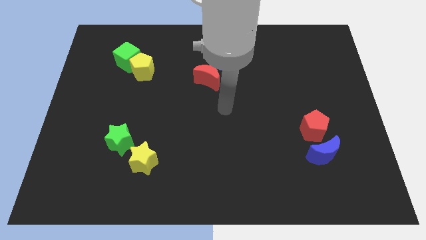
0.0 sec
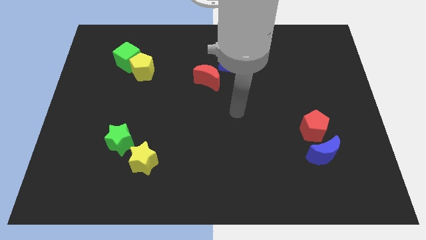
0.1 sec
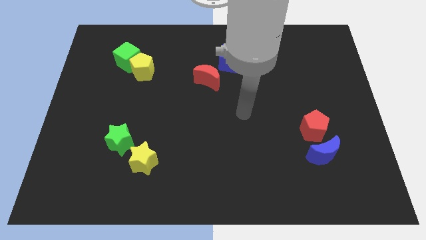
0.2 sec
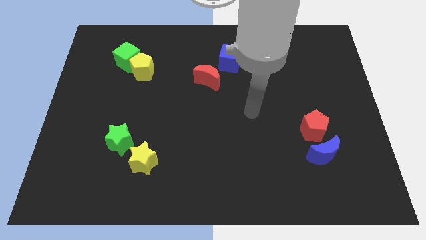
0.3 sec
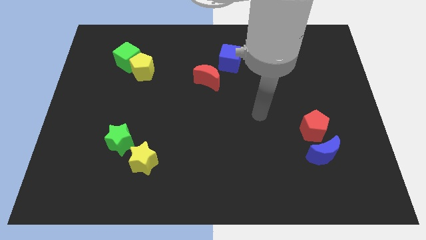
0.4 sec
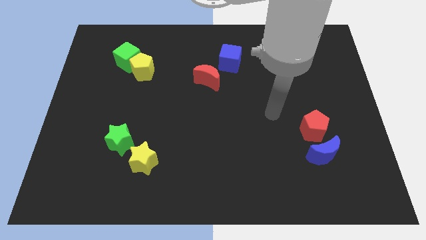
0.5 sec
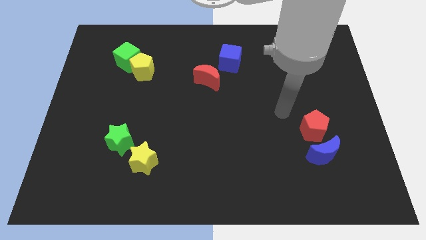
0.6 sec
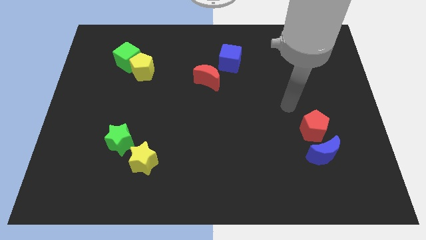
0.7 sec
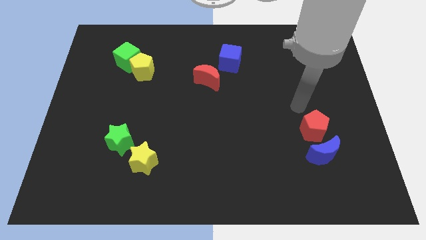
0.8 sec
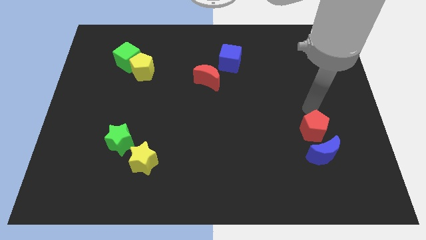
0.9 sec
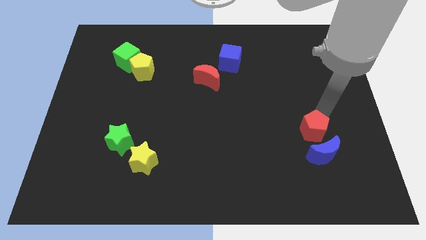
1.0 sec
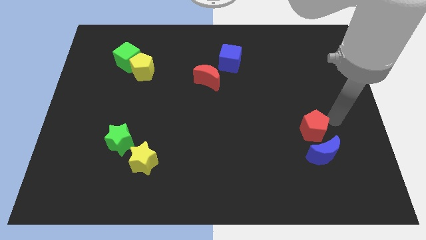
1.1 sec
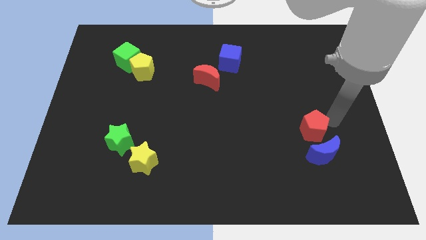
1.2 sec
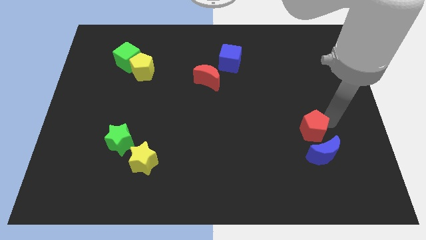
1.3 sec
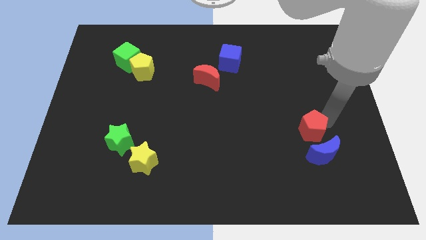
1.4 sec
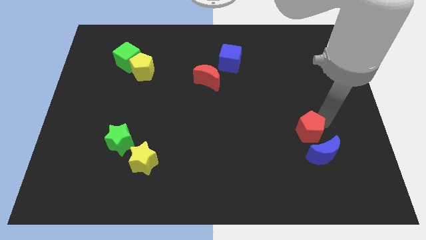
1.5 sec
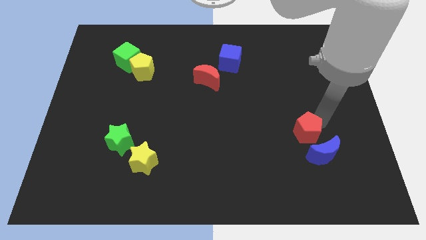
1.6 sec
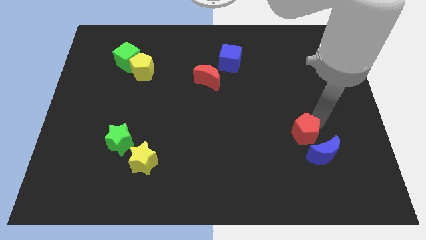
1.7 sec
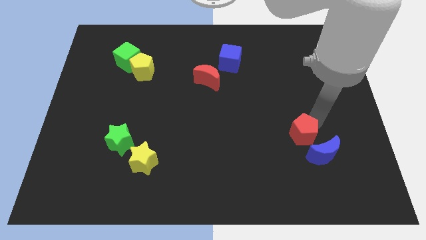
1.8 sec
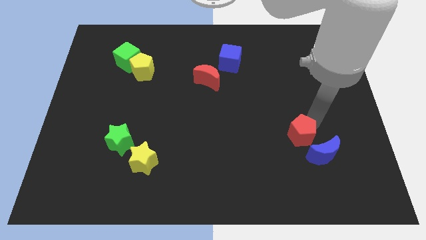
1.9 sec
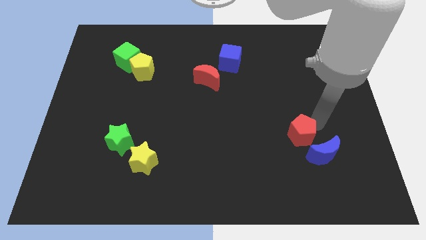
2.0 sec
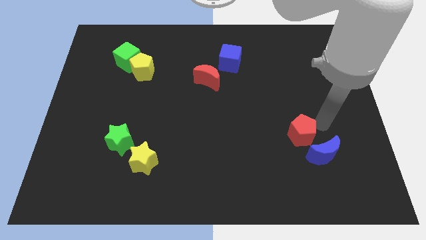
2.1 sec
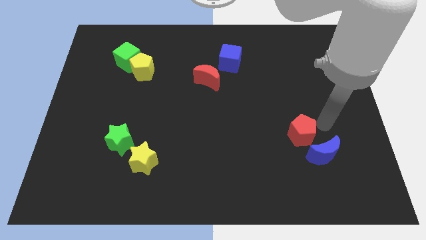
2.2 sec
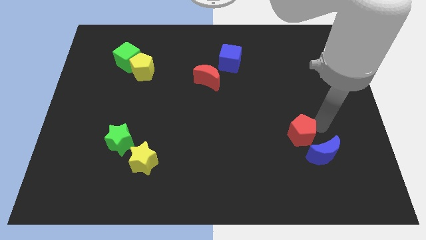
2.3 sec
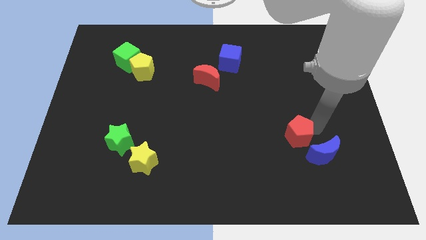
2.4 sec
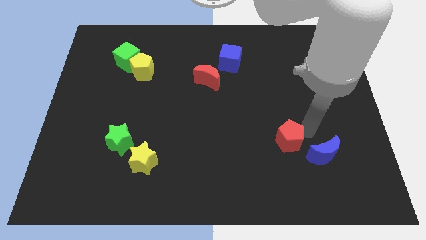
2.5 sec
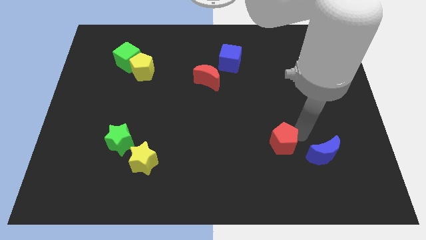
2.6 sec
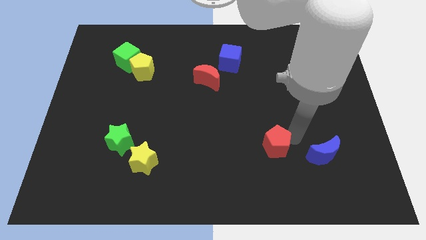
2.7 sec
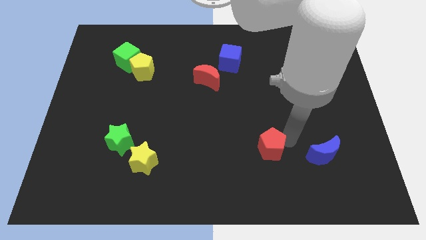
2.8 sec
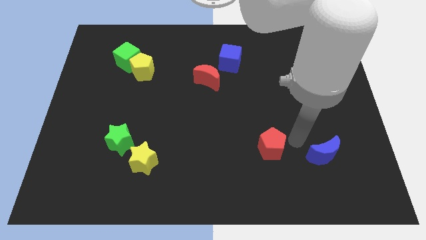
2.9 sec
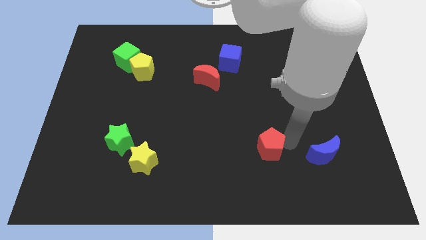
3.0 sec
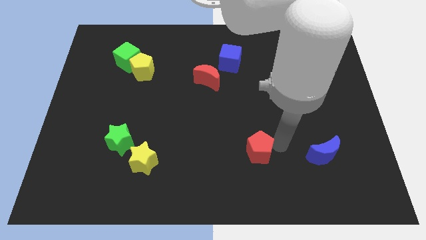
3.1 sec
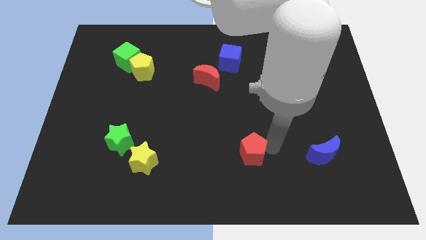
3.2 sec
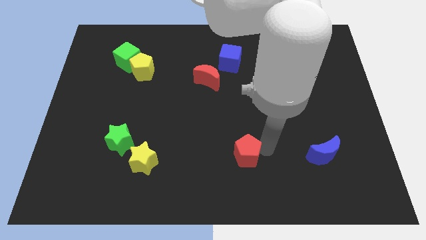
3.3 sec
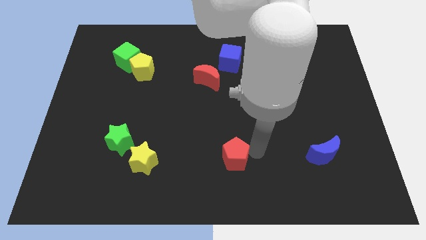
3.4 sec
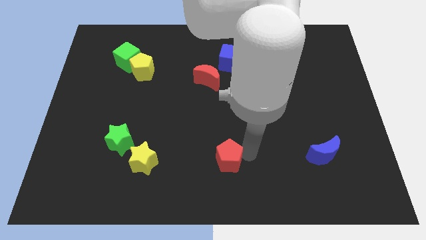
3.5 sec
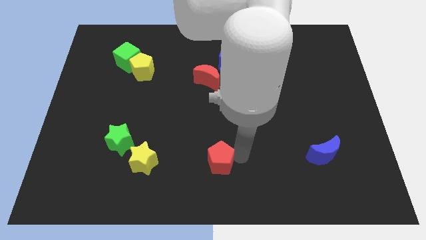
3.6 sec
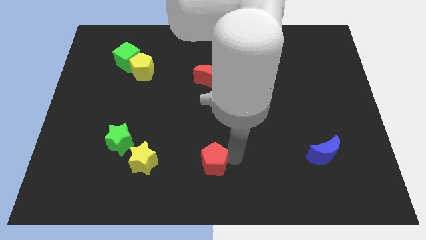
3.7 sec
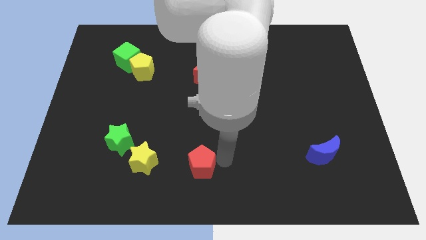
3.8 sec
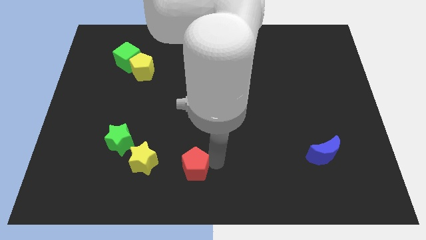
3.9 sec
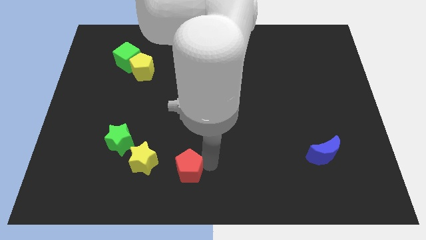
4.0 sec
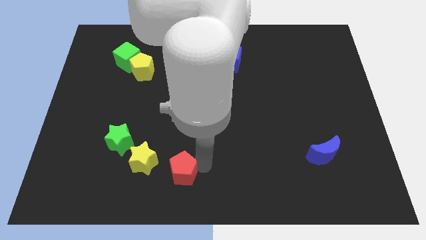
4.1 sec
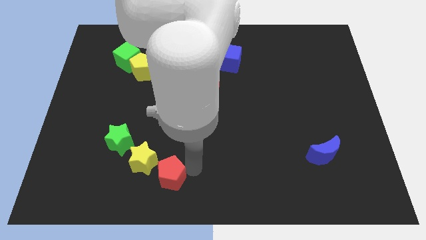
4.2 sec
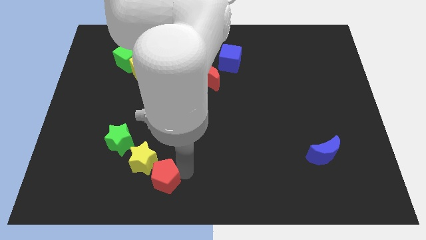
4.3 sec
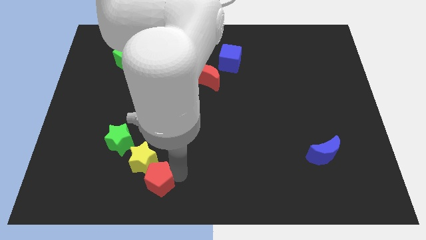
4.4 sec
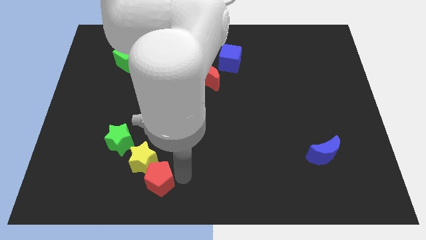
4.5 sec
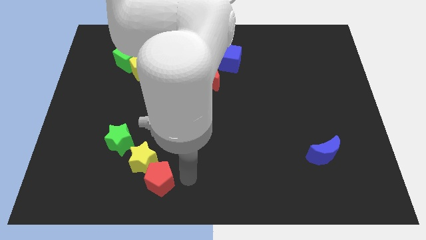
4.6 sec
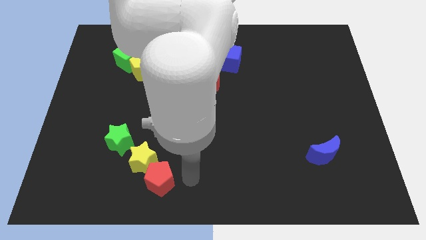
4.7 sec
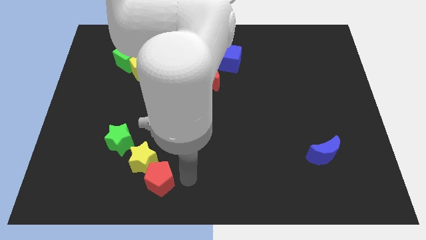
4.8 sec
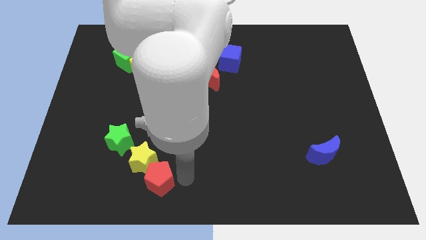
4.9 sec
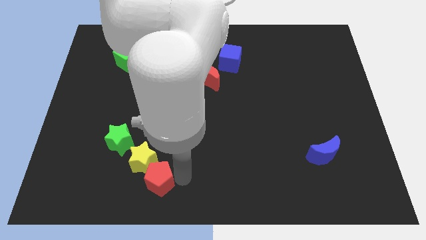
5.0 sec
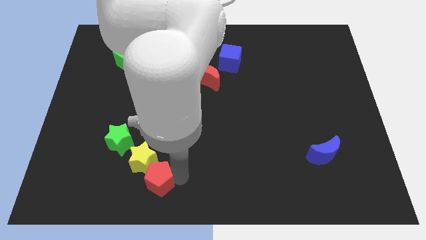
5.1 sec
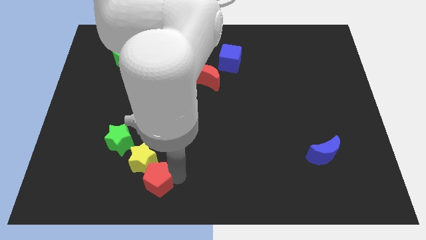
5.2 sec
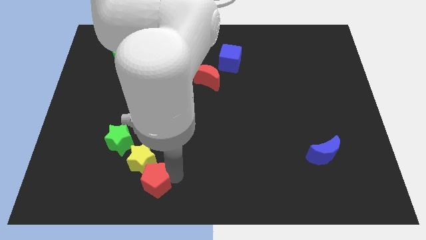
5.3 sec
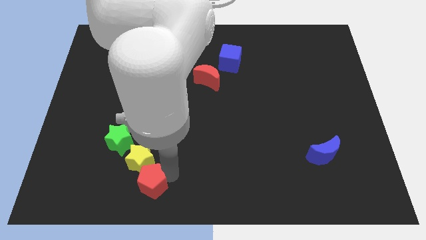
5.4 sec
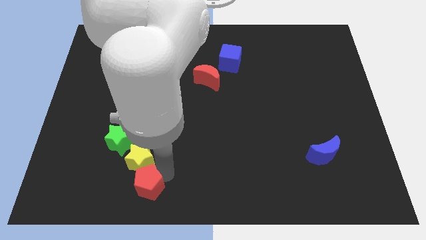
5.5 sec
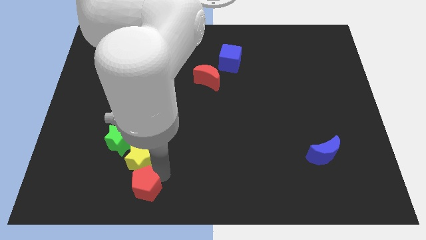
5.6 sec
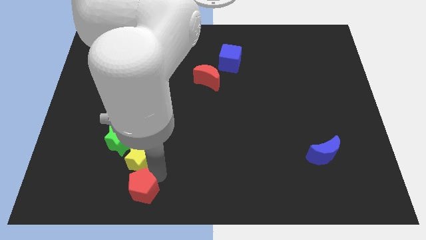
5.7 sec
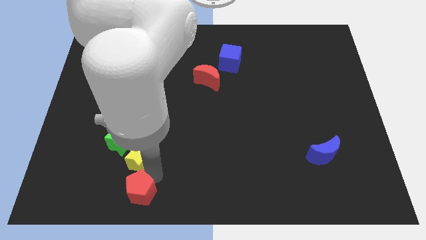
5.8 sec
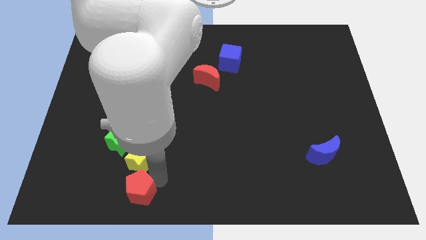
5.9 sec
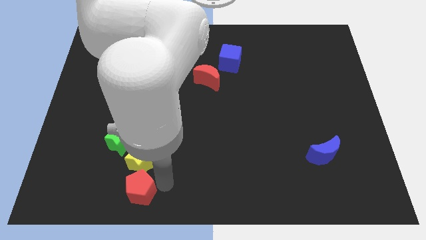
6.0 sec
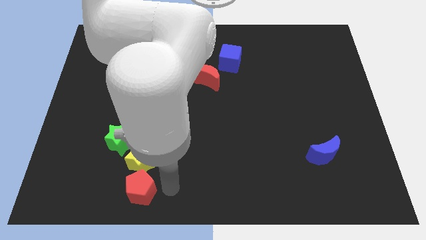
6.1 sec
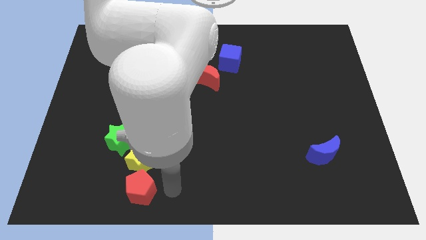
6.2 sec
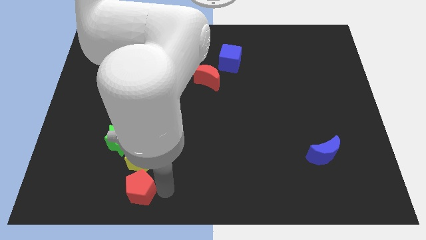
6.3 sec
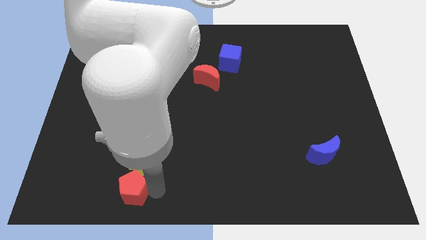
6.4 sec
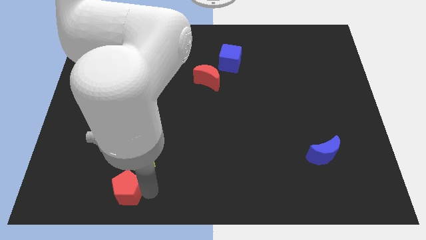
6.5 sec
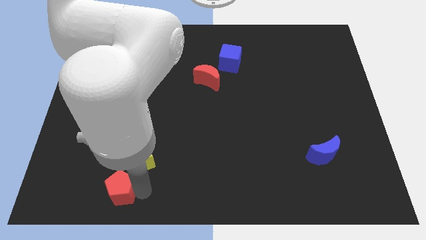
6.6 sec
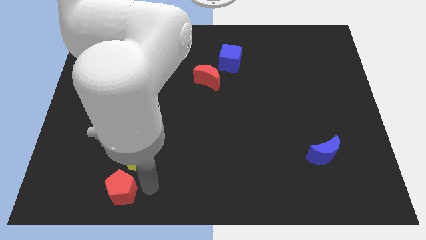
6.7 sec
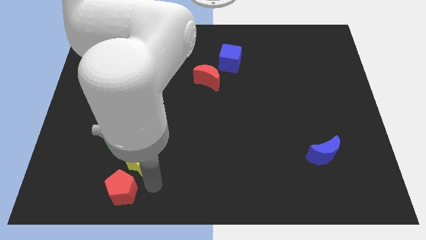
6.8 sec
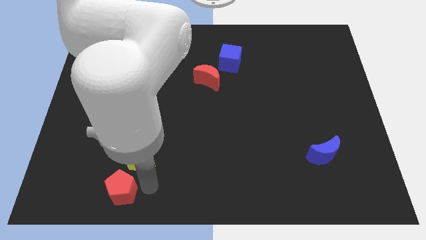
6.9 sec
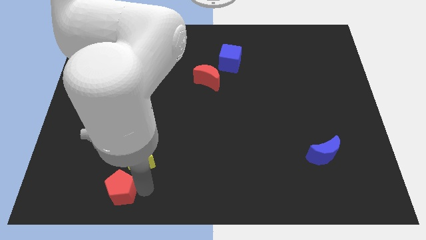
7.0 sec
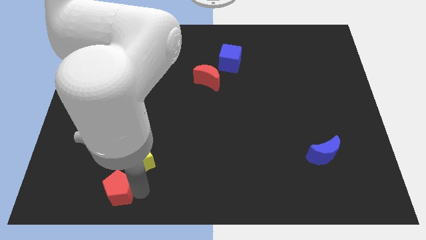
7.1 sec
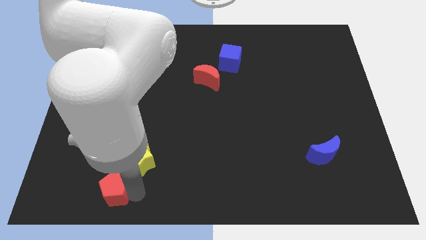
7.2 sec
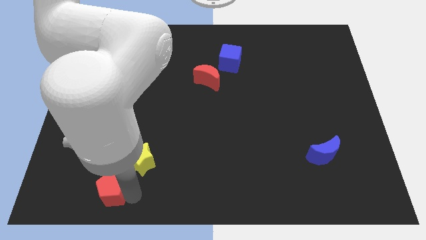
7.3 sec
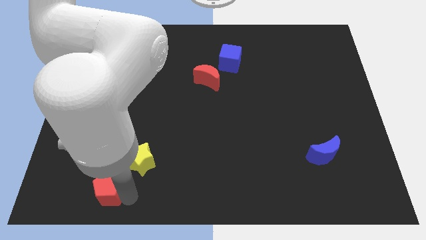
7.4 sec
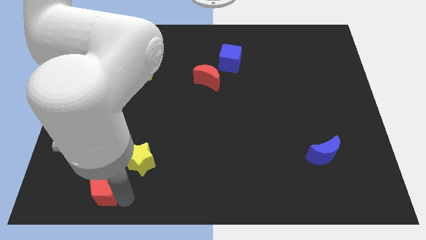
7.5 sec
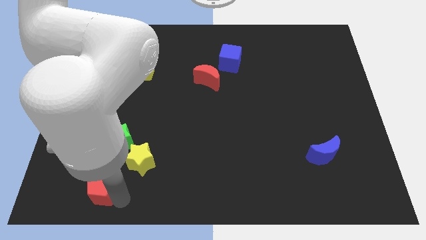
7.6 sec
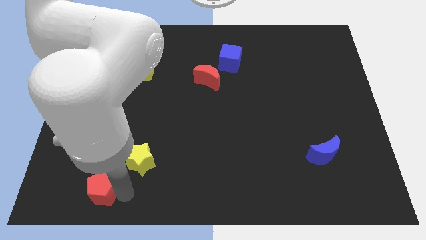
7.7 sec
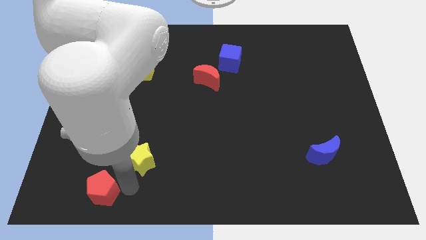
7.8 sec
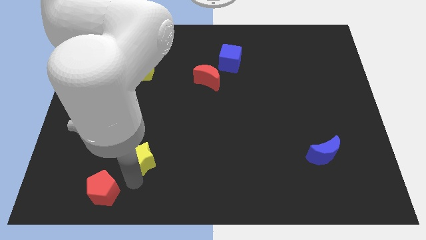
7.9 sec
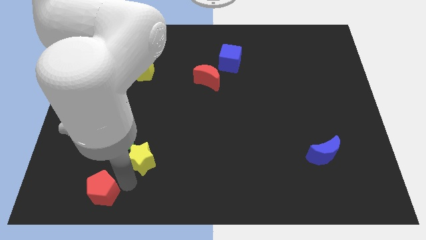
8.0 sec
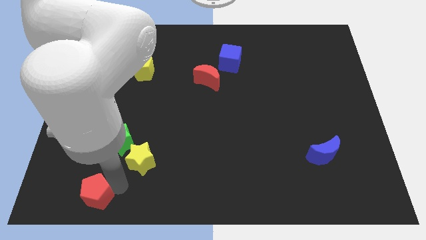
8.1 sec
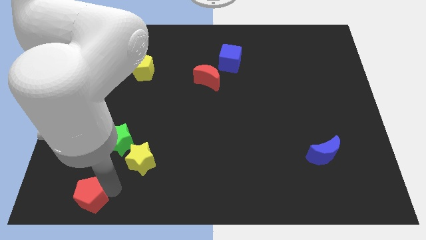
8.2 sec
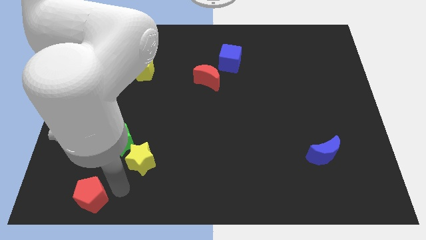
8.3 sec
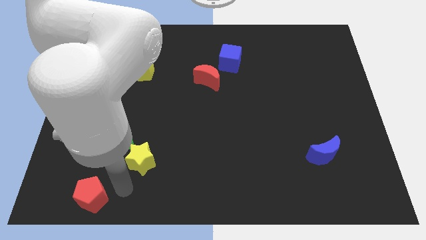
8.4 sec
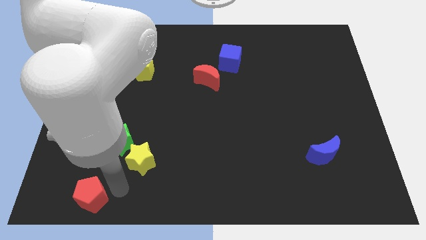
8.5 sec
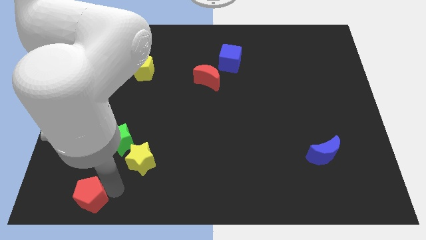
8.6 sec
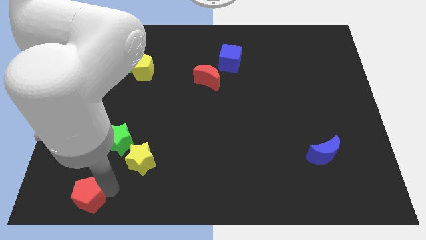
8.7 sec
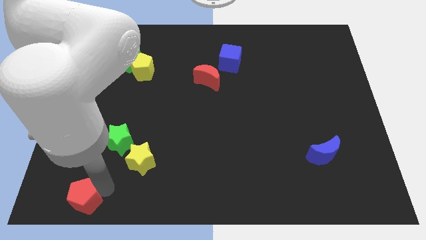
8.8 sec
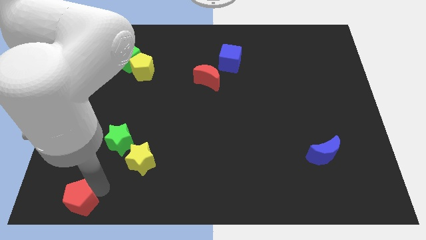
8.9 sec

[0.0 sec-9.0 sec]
push the red pentagon to the lower left corner
